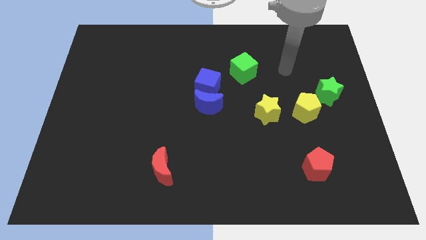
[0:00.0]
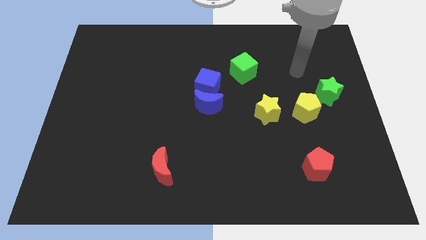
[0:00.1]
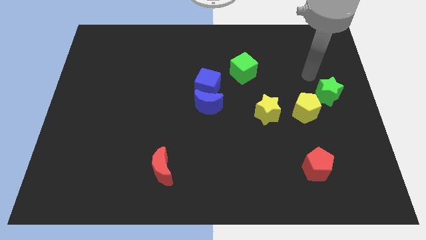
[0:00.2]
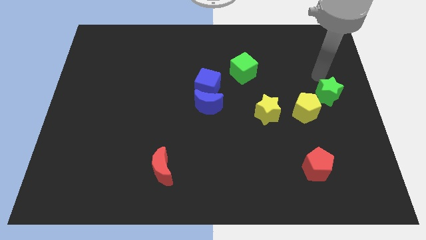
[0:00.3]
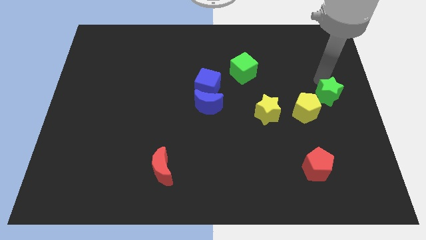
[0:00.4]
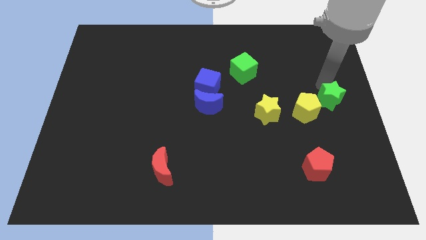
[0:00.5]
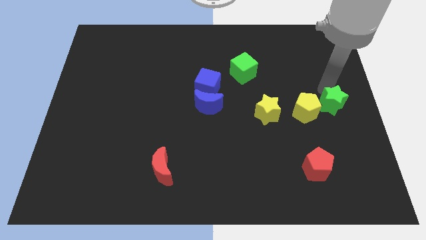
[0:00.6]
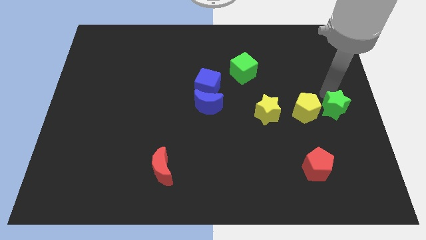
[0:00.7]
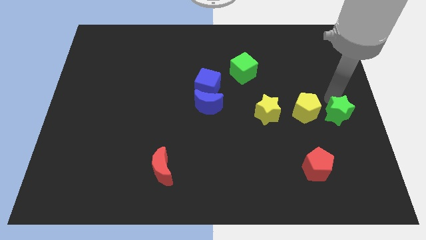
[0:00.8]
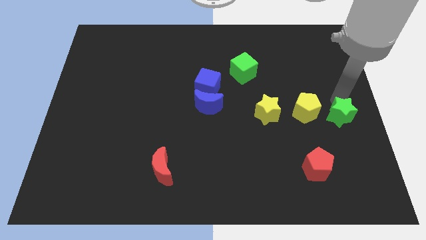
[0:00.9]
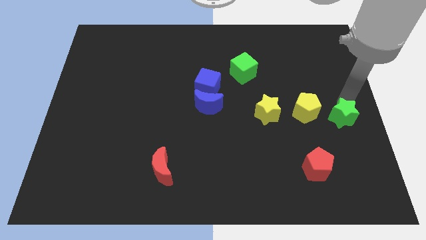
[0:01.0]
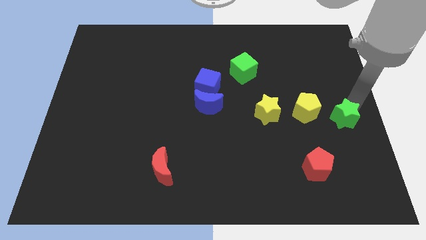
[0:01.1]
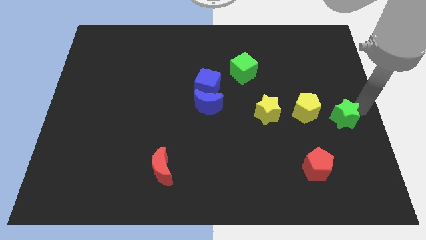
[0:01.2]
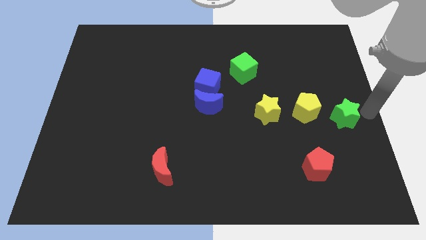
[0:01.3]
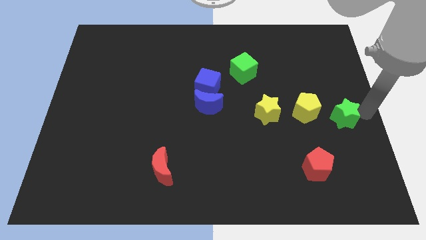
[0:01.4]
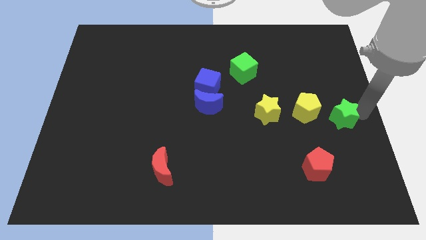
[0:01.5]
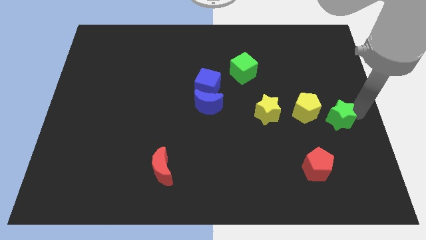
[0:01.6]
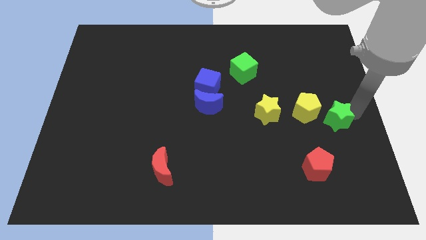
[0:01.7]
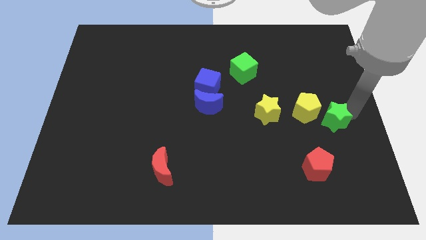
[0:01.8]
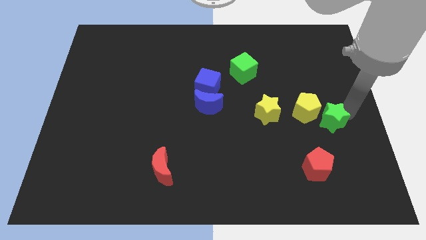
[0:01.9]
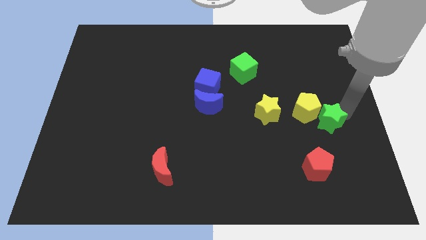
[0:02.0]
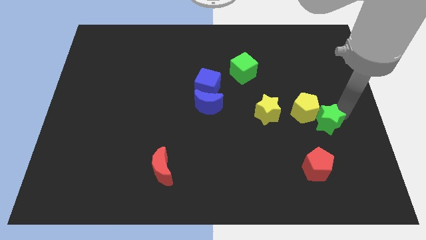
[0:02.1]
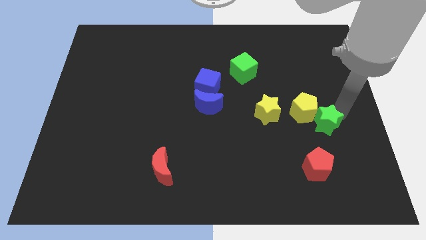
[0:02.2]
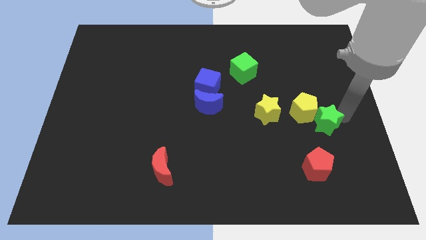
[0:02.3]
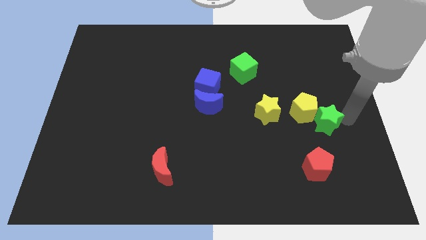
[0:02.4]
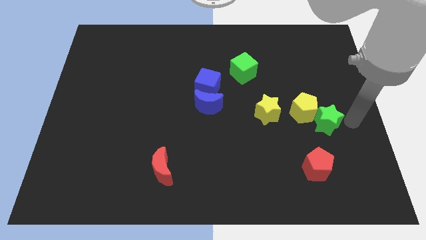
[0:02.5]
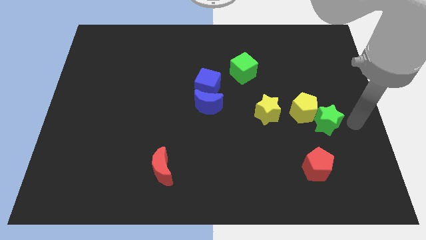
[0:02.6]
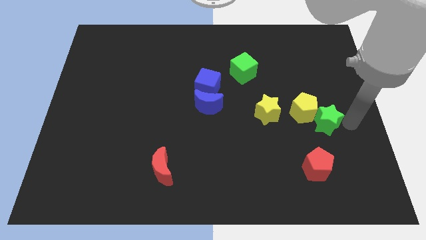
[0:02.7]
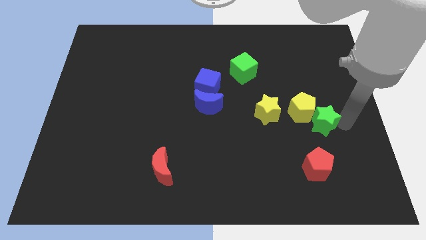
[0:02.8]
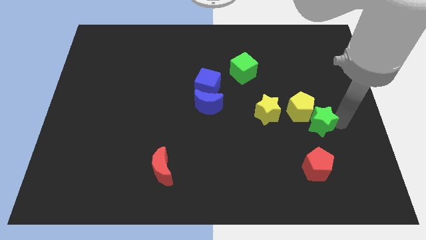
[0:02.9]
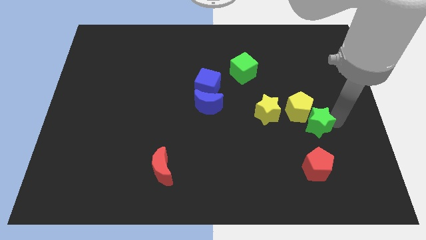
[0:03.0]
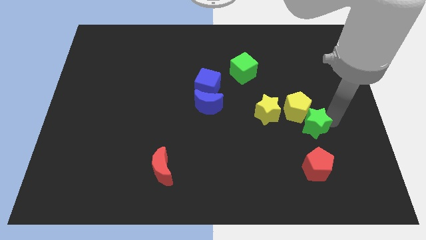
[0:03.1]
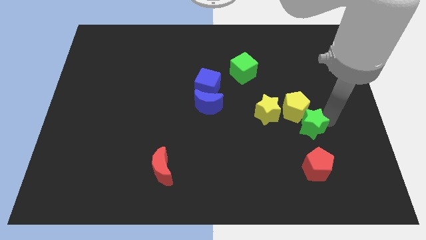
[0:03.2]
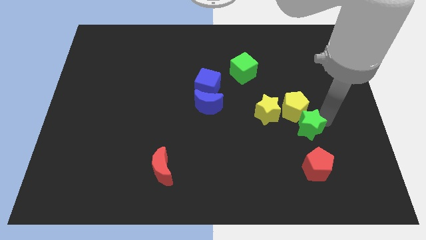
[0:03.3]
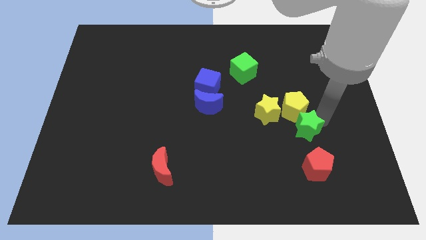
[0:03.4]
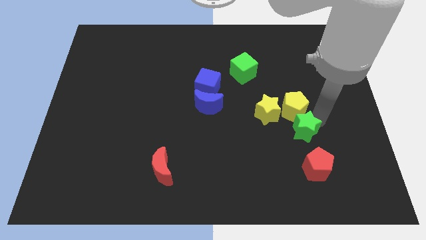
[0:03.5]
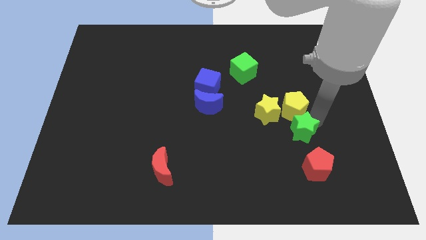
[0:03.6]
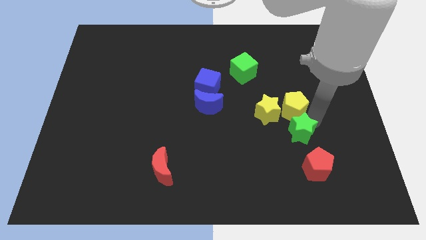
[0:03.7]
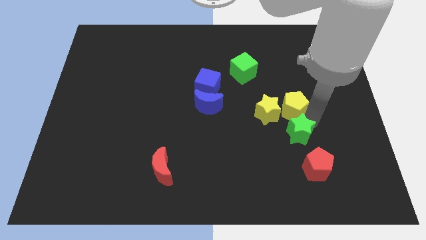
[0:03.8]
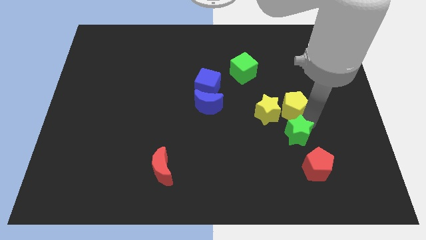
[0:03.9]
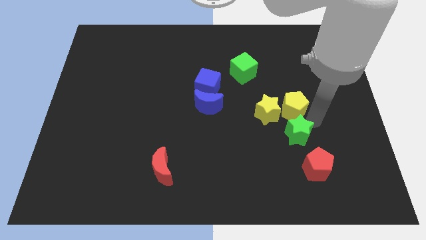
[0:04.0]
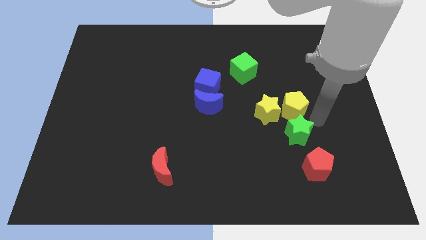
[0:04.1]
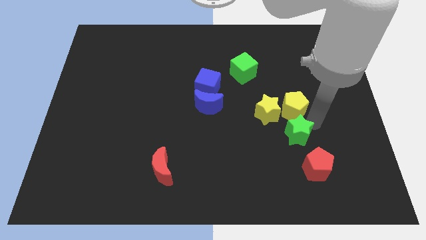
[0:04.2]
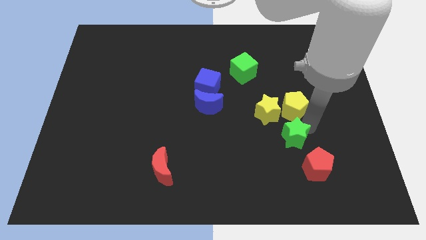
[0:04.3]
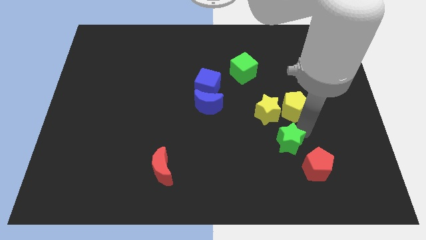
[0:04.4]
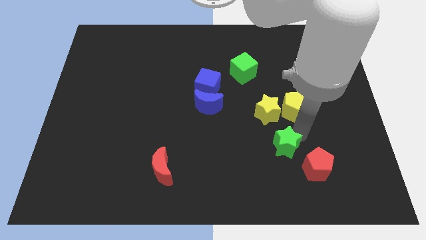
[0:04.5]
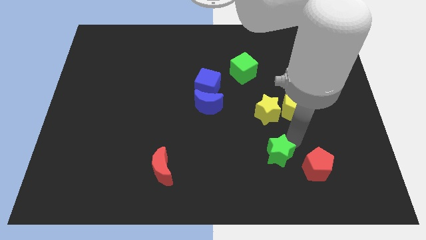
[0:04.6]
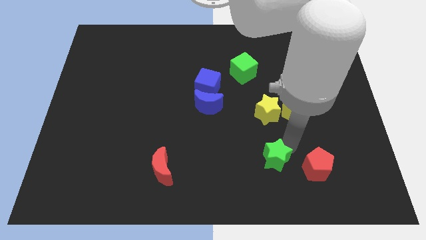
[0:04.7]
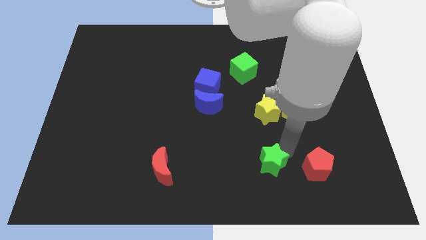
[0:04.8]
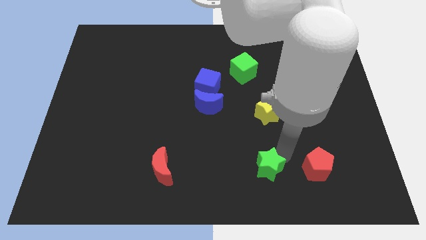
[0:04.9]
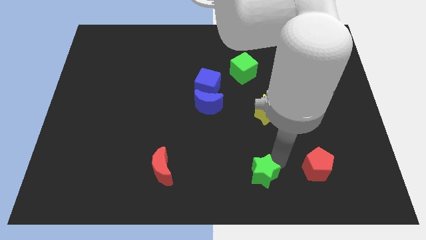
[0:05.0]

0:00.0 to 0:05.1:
move the green star to the bottom

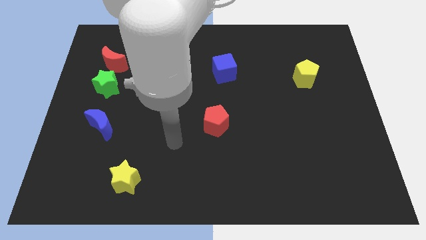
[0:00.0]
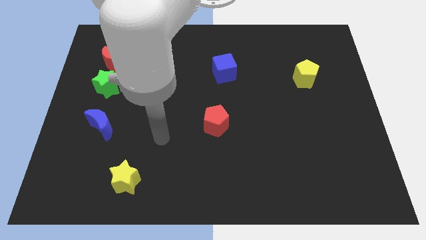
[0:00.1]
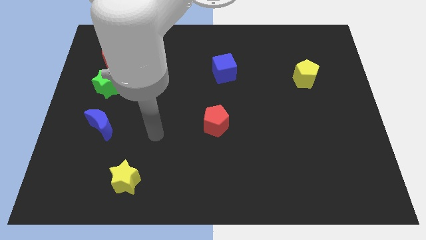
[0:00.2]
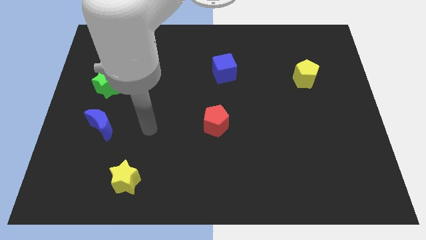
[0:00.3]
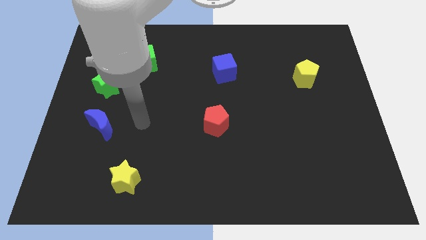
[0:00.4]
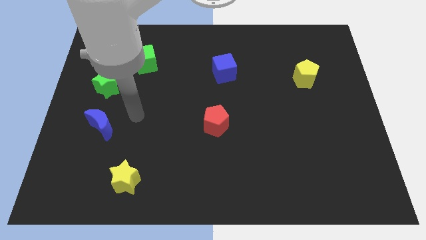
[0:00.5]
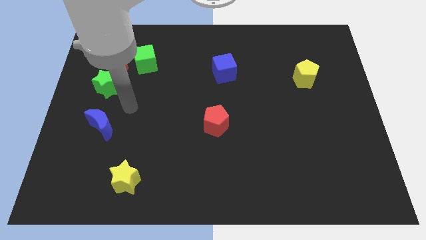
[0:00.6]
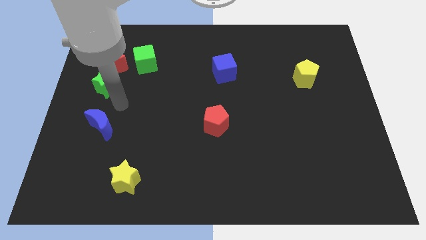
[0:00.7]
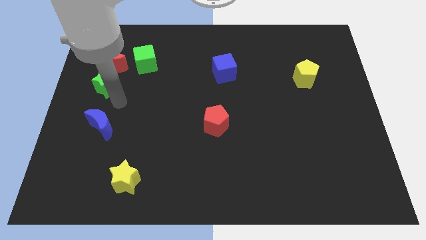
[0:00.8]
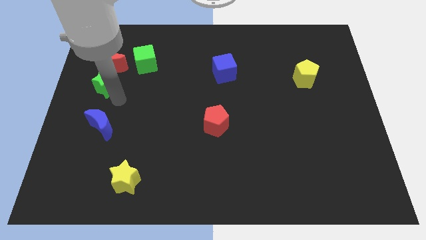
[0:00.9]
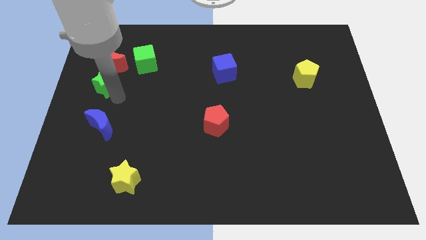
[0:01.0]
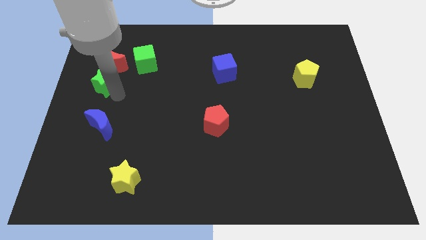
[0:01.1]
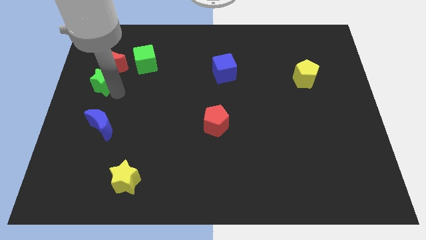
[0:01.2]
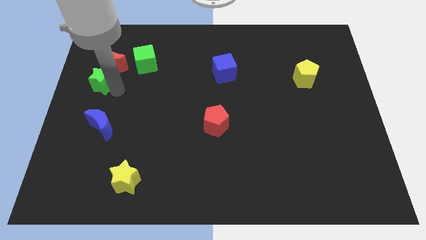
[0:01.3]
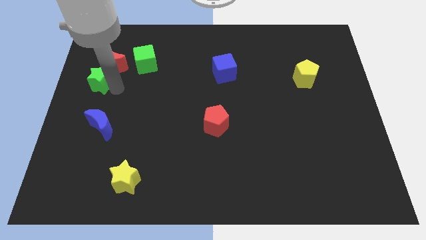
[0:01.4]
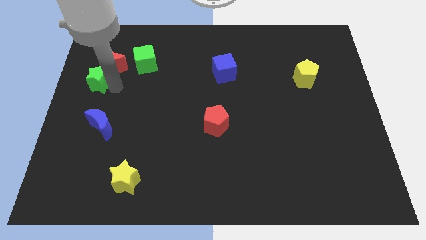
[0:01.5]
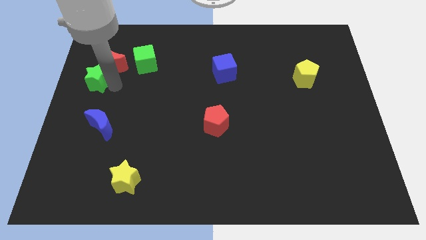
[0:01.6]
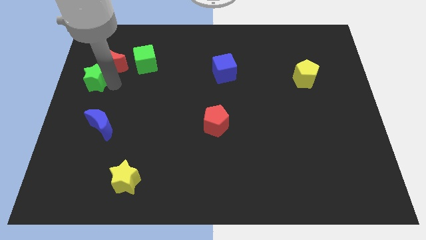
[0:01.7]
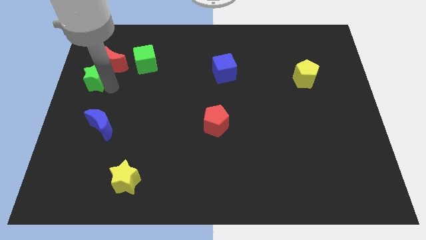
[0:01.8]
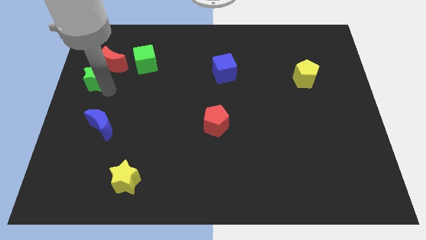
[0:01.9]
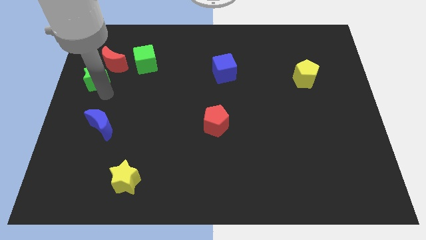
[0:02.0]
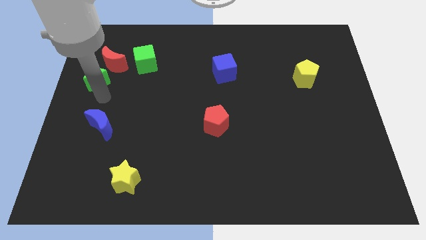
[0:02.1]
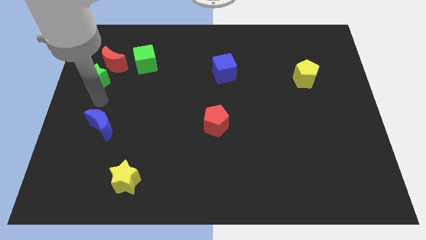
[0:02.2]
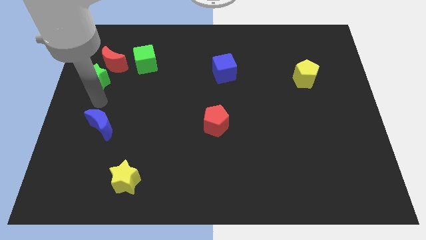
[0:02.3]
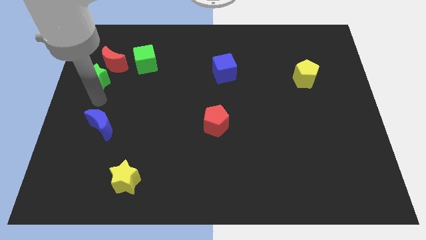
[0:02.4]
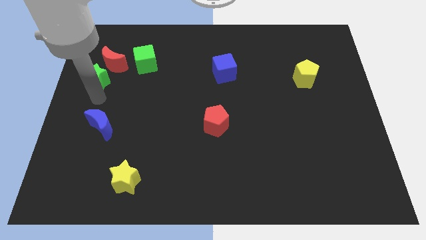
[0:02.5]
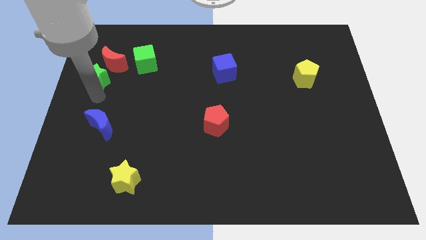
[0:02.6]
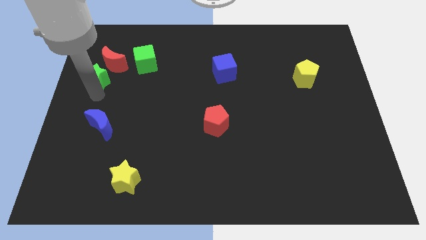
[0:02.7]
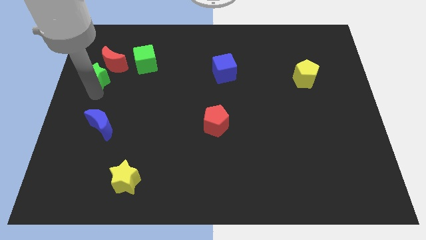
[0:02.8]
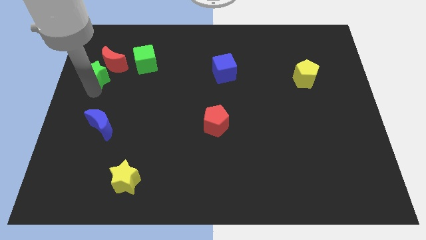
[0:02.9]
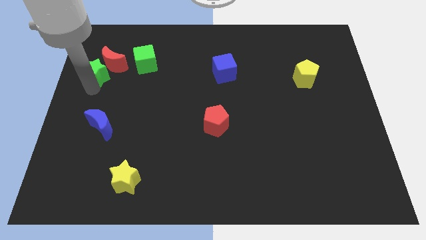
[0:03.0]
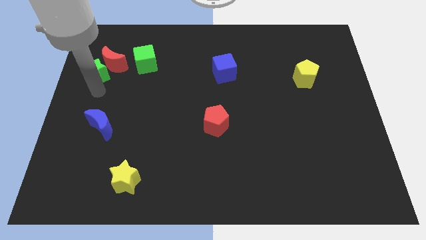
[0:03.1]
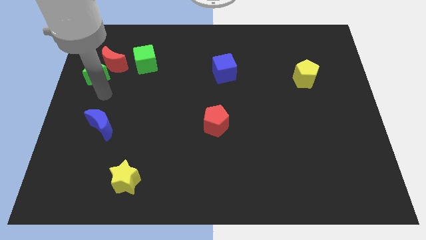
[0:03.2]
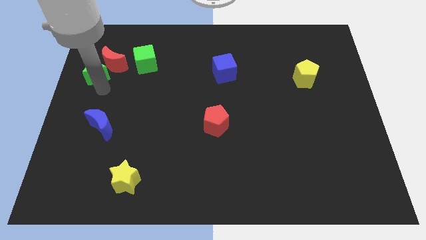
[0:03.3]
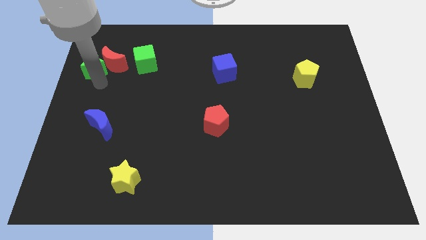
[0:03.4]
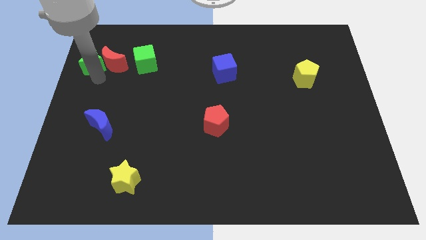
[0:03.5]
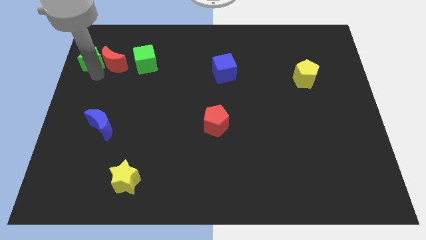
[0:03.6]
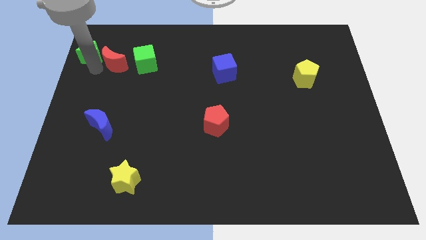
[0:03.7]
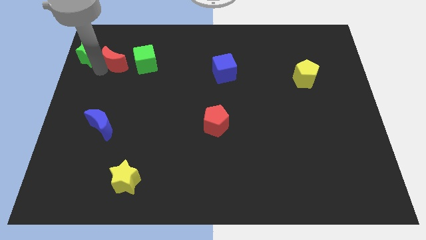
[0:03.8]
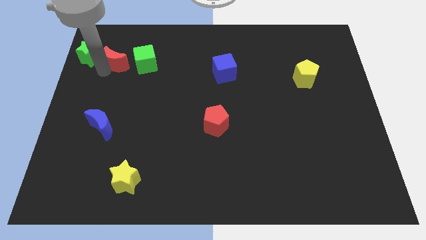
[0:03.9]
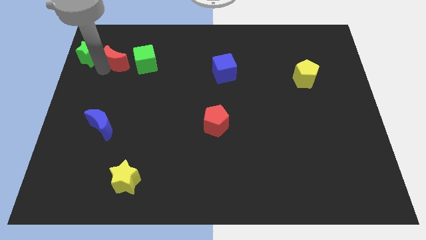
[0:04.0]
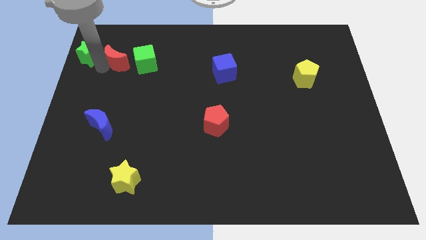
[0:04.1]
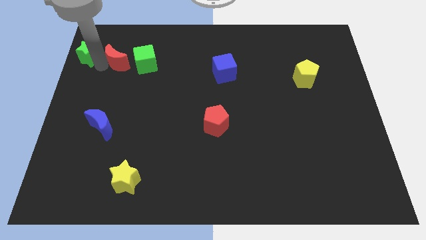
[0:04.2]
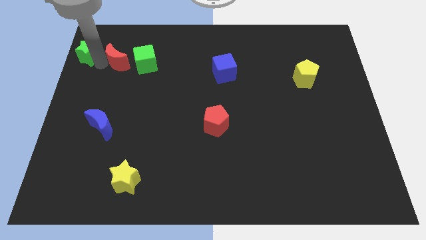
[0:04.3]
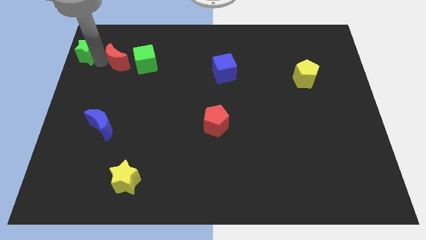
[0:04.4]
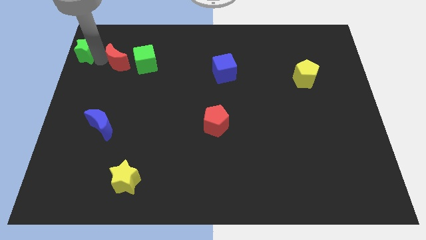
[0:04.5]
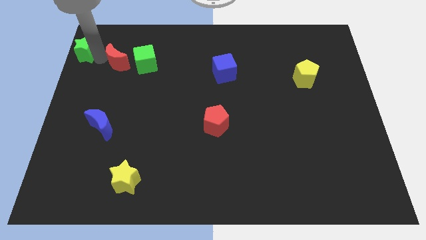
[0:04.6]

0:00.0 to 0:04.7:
slide the green star to the upper left corner
